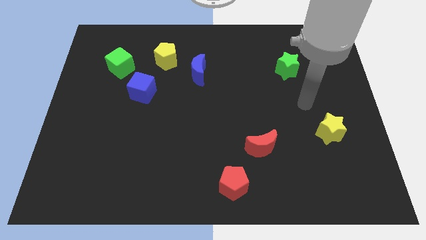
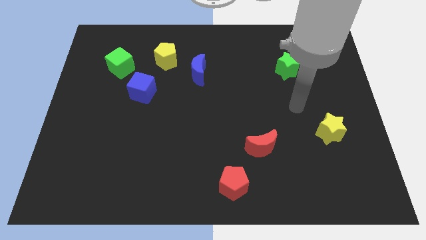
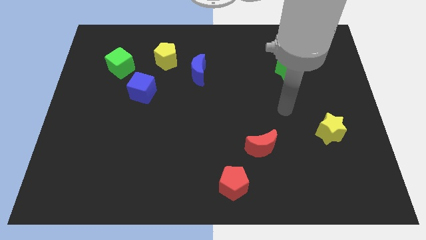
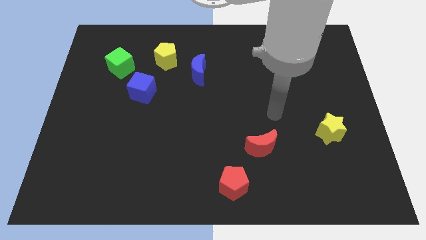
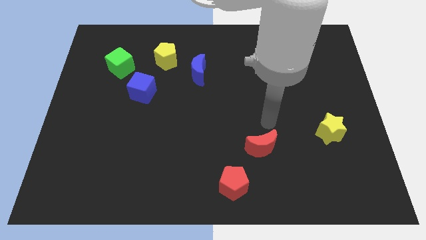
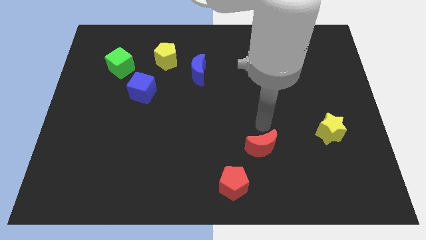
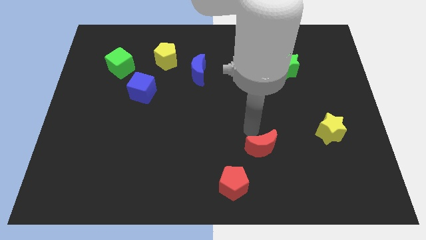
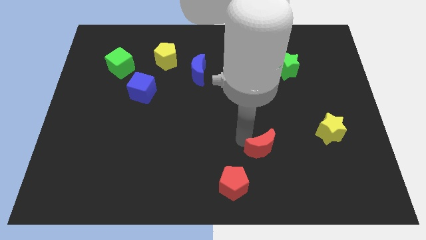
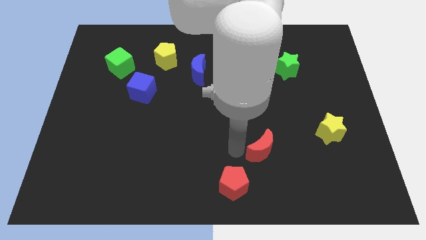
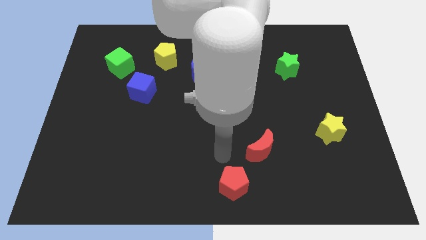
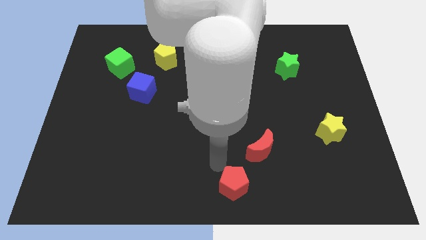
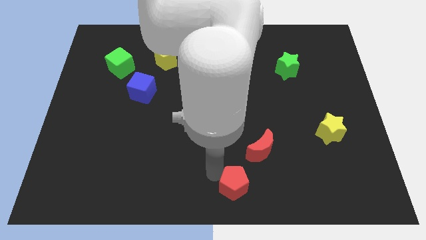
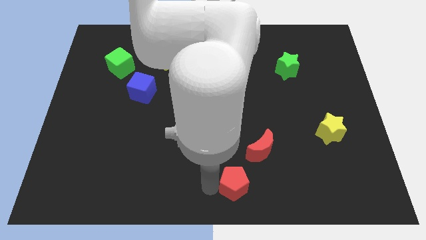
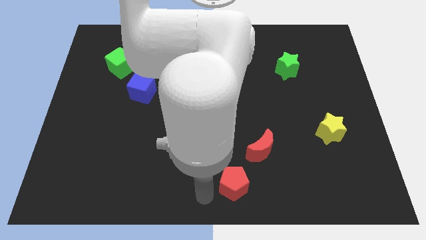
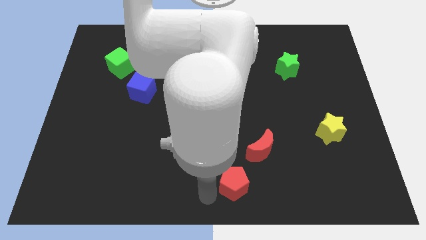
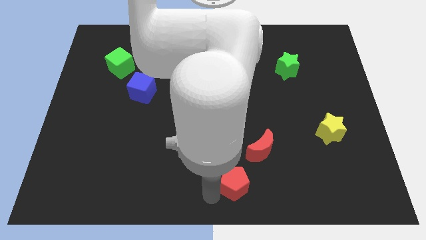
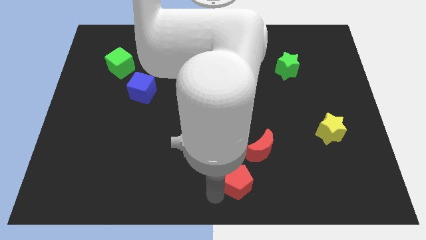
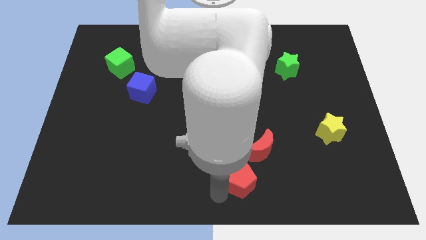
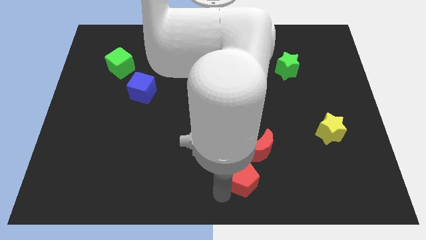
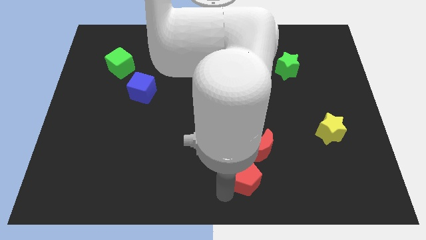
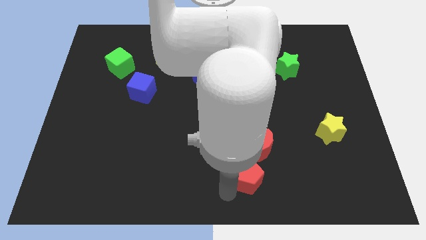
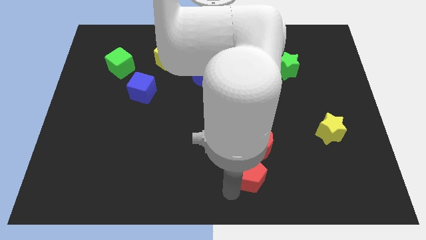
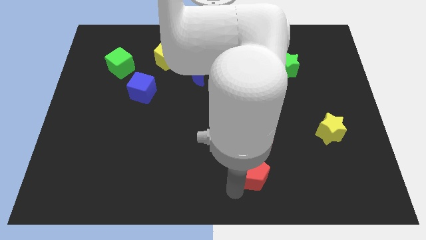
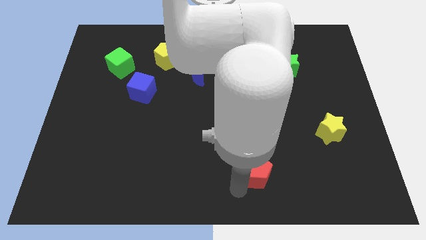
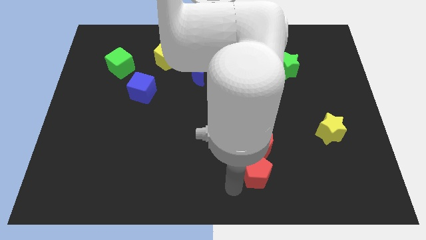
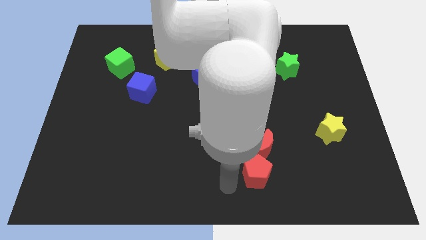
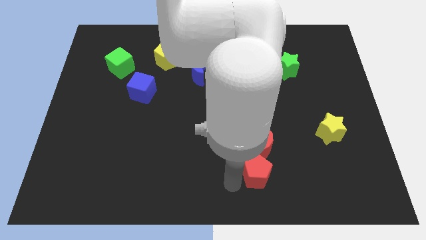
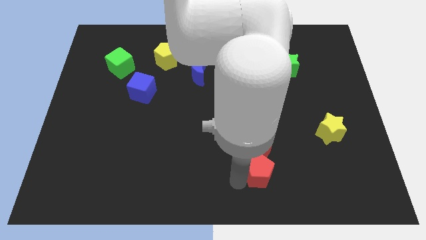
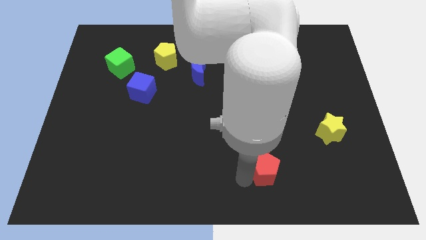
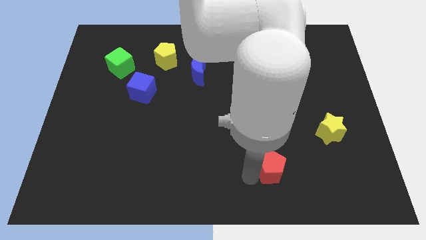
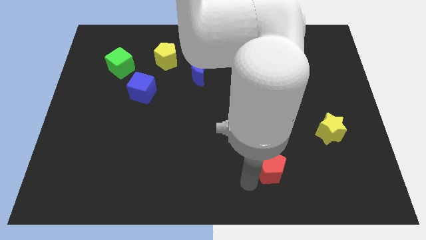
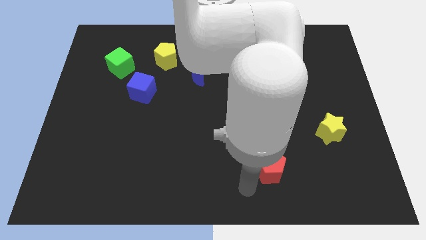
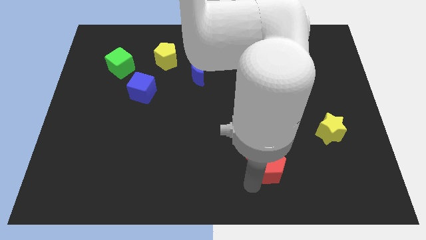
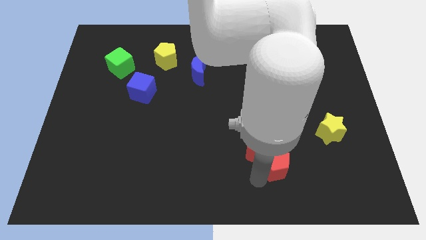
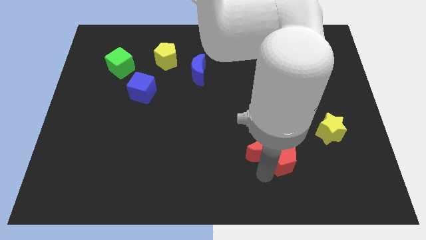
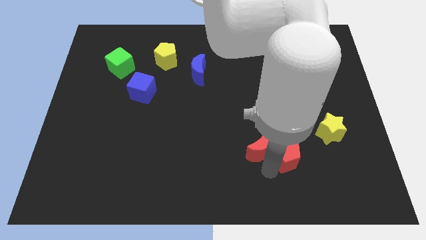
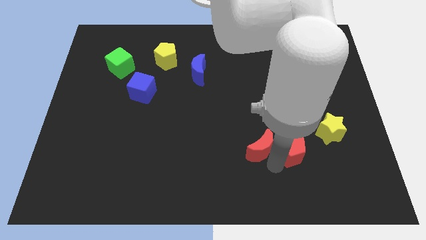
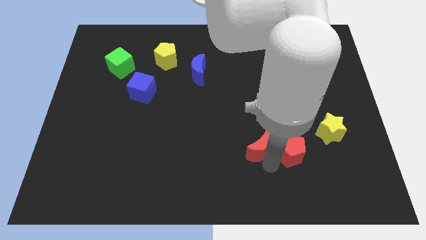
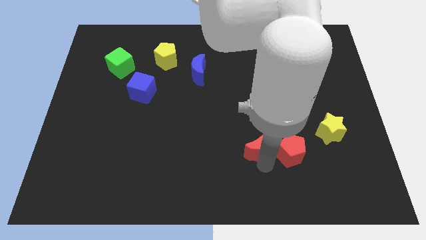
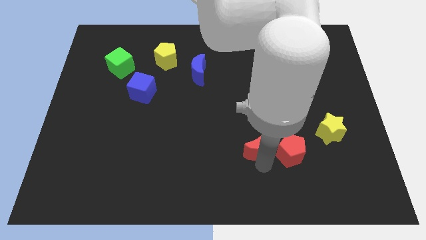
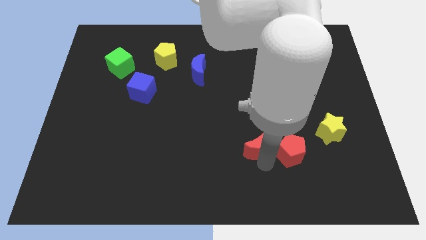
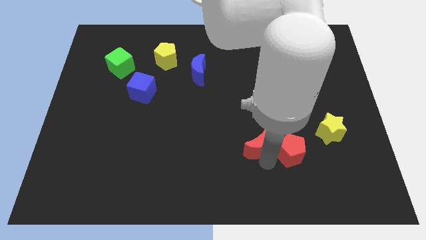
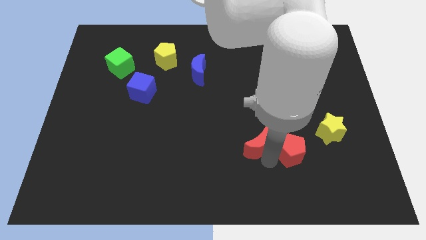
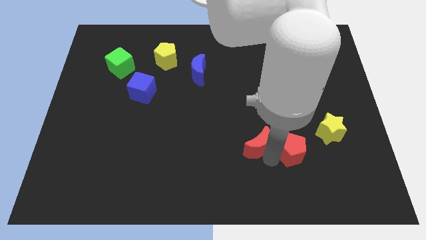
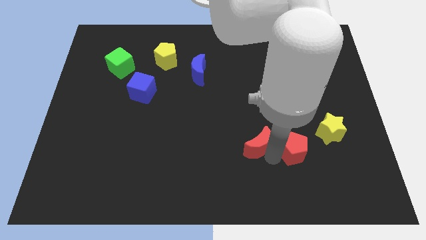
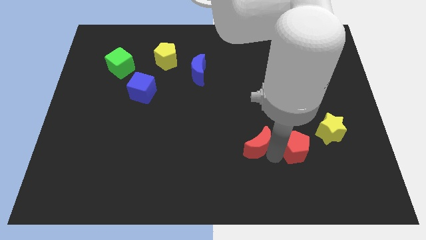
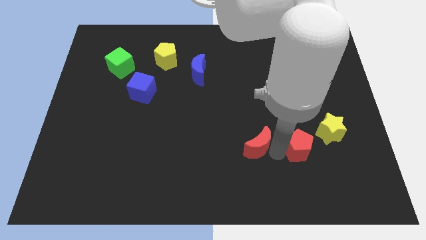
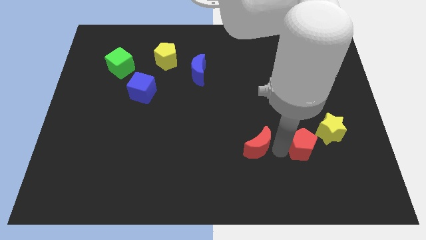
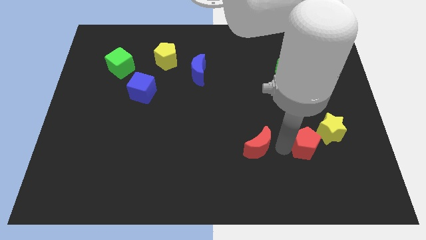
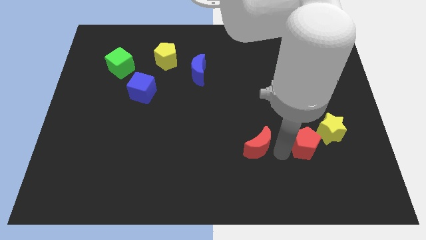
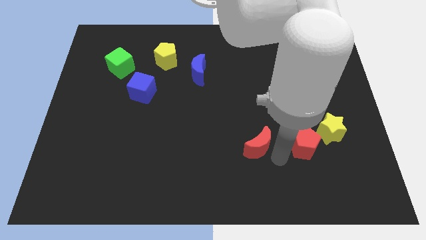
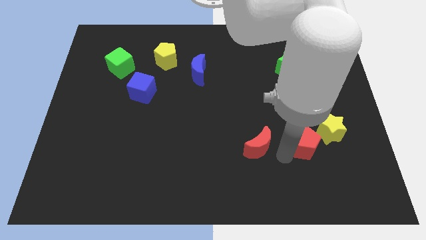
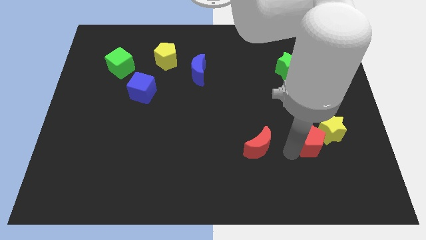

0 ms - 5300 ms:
move the red pentagon close to the yellow star

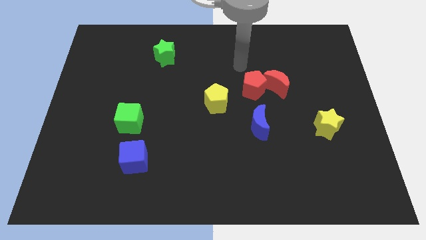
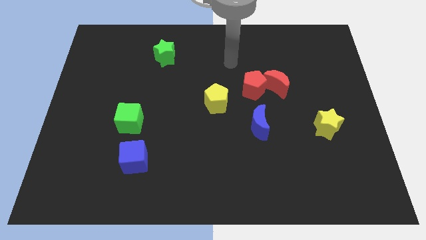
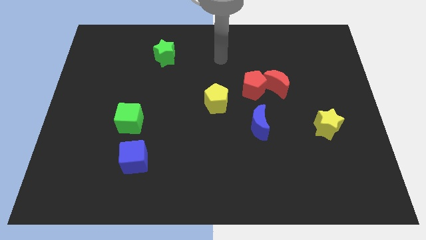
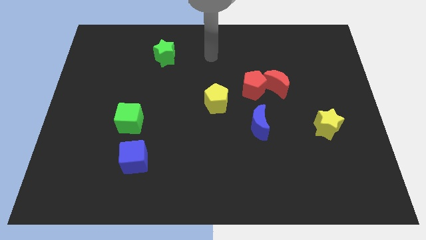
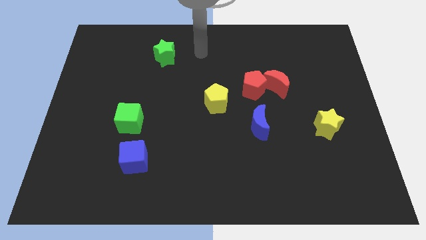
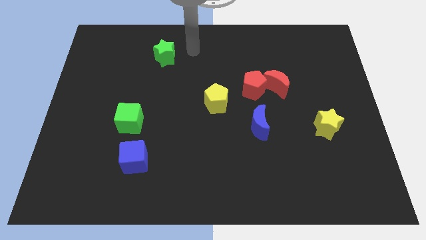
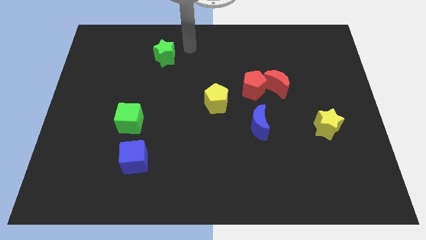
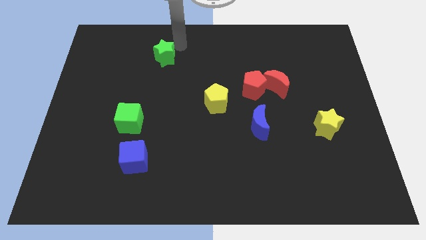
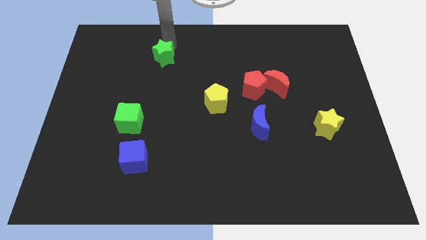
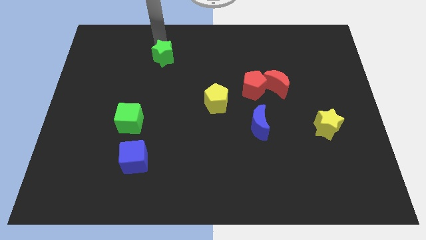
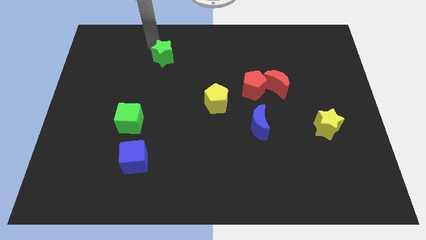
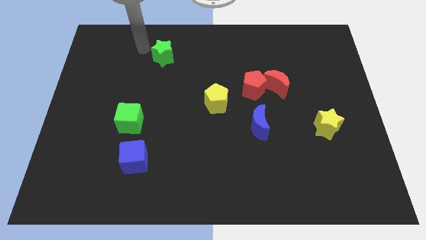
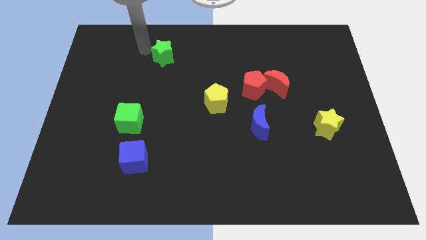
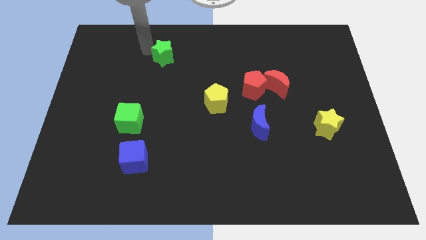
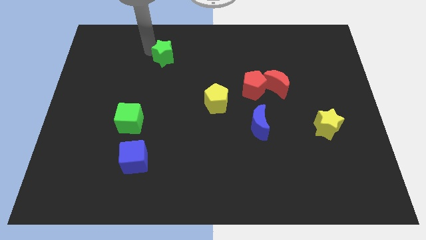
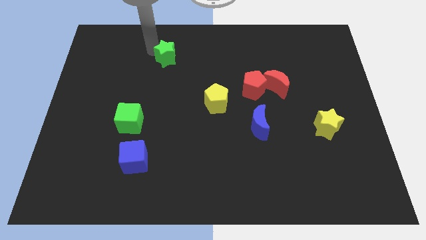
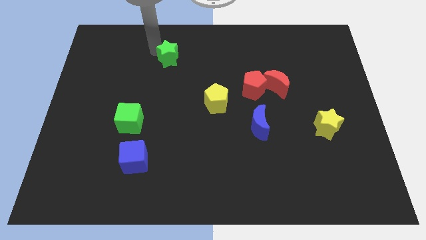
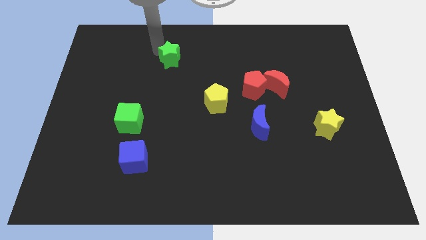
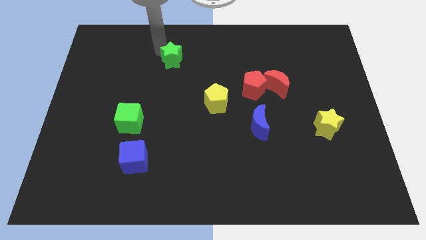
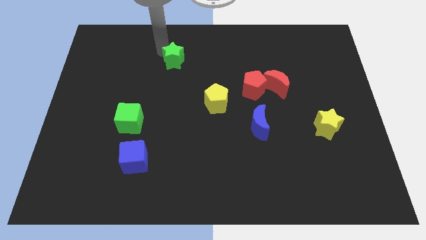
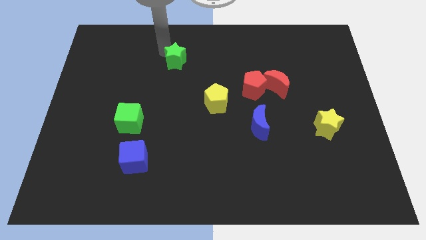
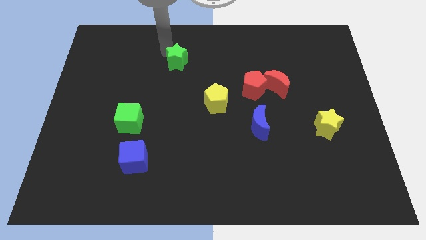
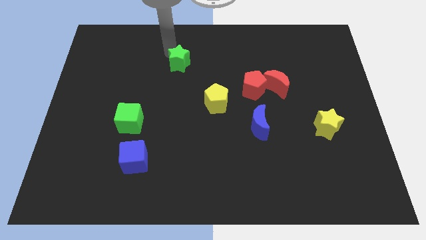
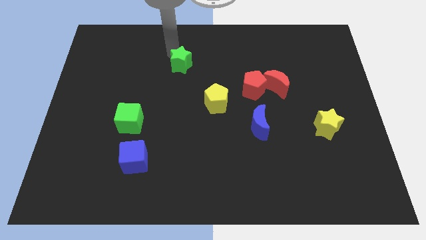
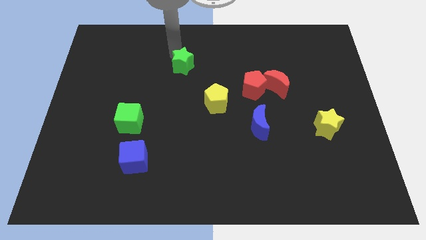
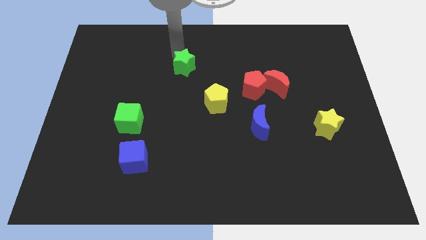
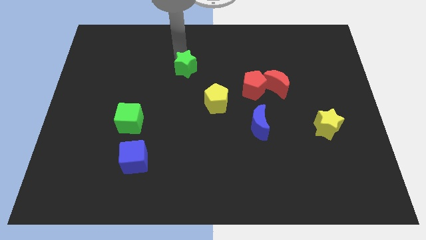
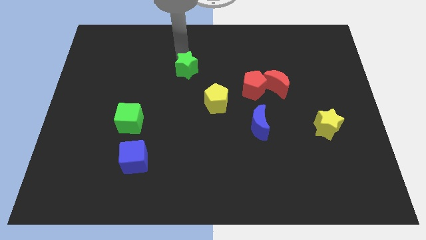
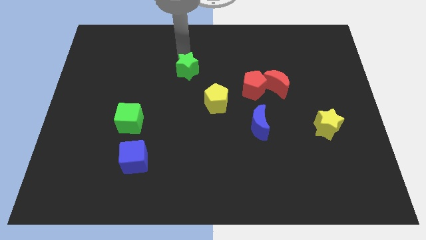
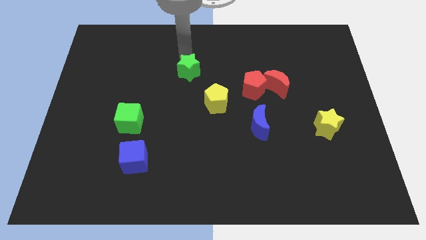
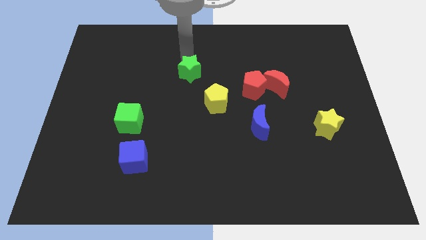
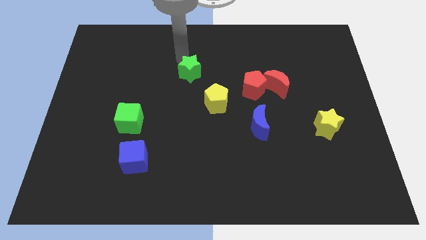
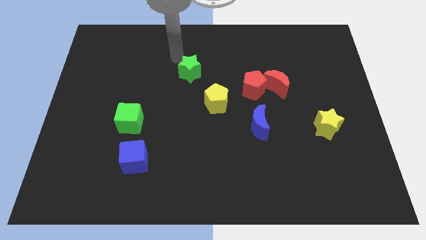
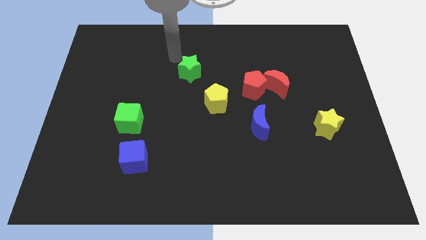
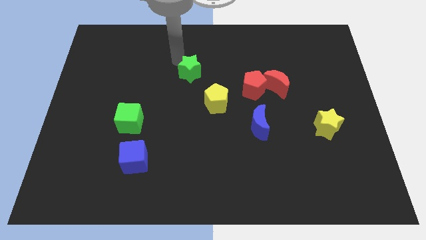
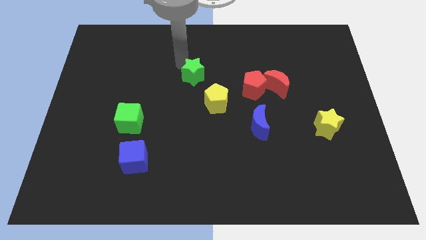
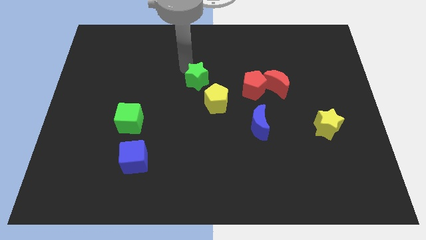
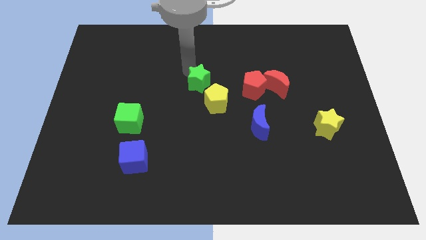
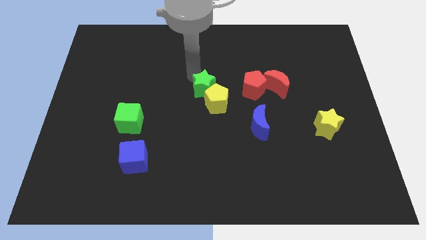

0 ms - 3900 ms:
put the green star towards the yellow pentagon
